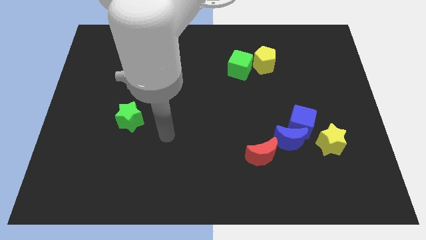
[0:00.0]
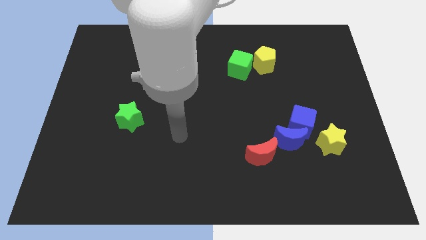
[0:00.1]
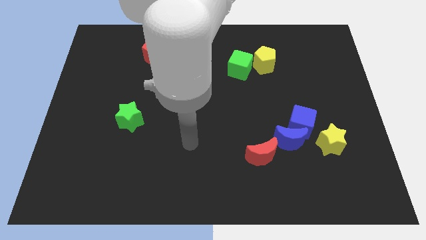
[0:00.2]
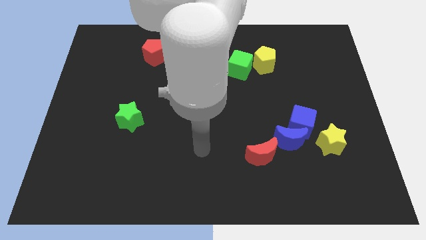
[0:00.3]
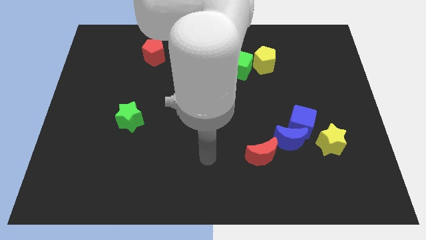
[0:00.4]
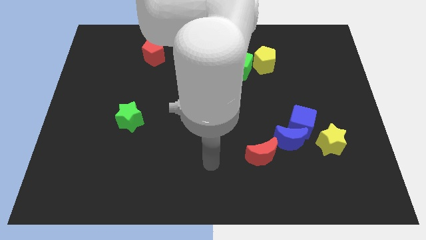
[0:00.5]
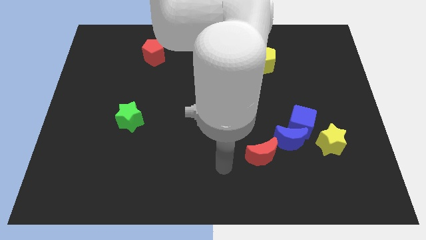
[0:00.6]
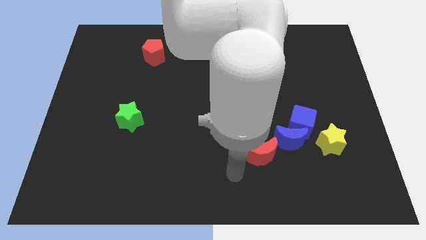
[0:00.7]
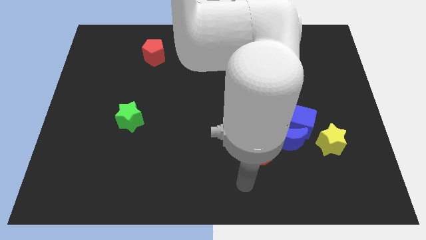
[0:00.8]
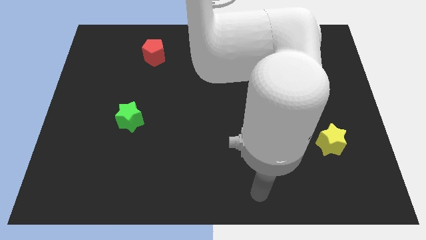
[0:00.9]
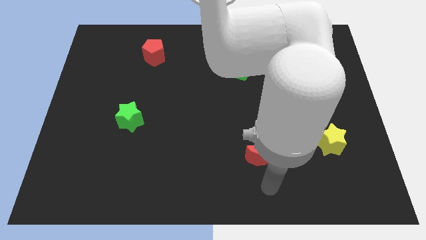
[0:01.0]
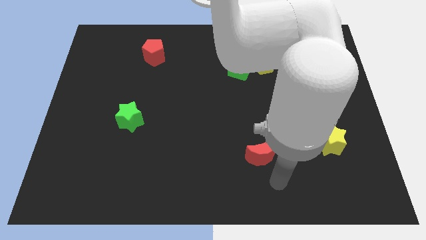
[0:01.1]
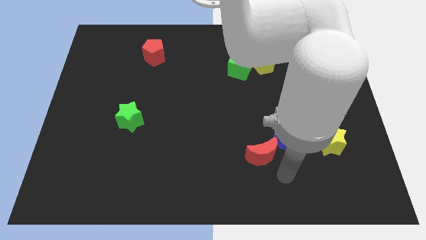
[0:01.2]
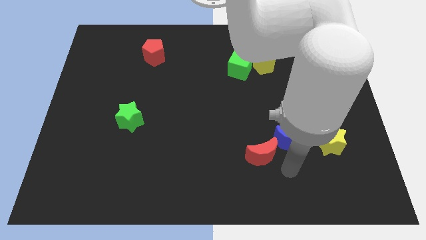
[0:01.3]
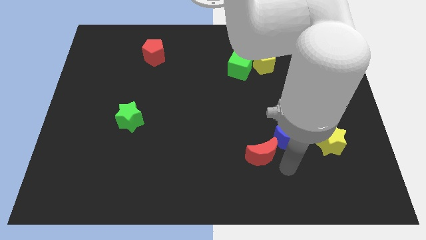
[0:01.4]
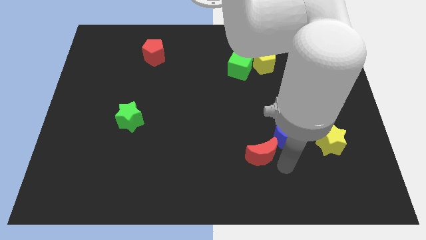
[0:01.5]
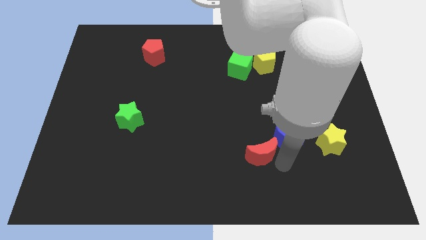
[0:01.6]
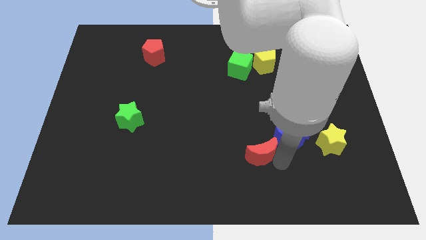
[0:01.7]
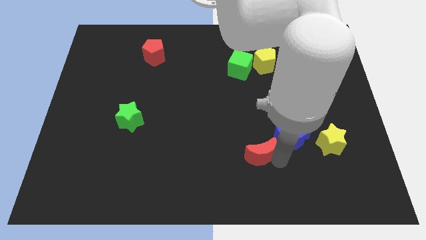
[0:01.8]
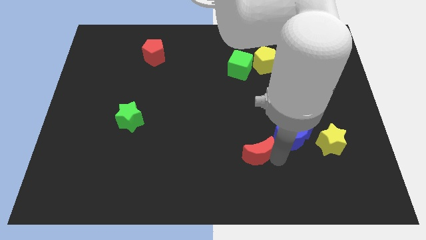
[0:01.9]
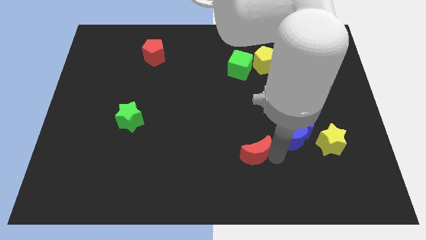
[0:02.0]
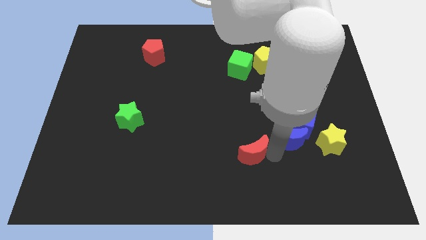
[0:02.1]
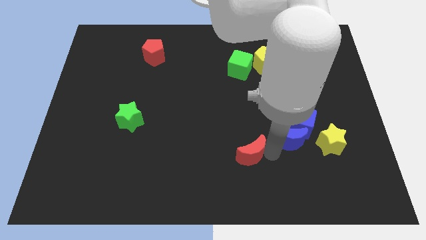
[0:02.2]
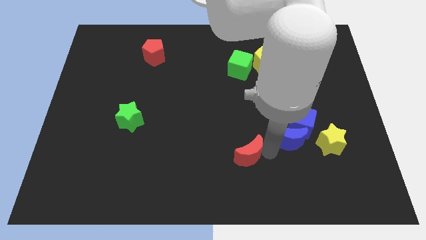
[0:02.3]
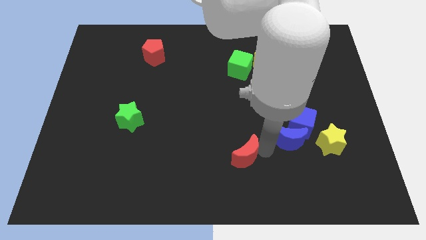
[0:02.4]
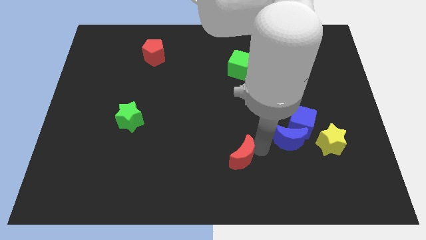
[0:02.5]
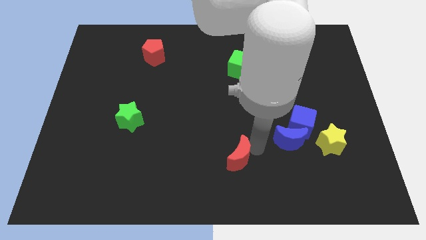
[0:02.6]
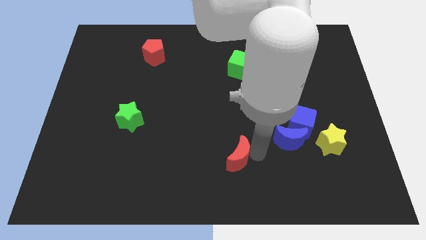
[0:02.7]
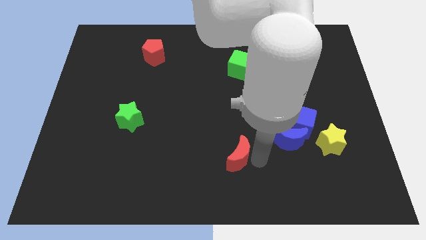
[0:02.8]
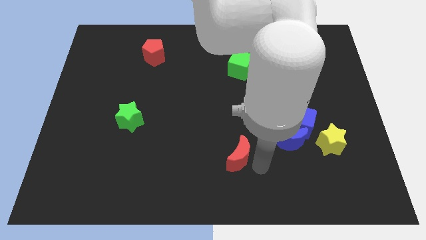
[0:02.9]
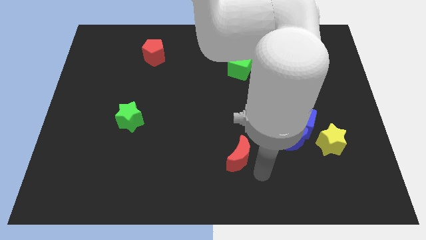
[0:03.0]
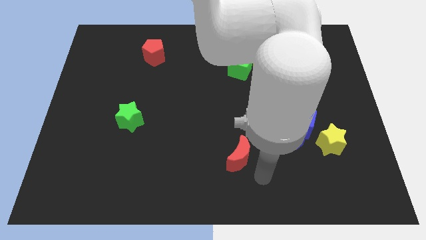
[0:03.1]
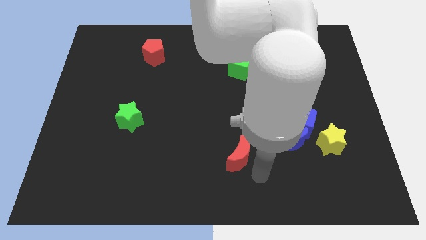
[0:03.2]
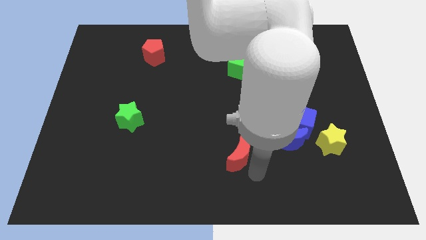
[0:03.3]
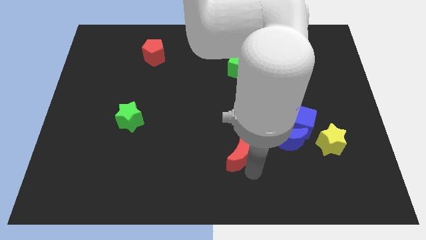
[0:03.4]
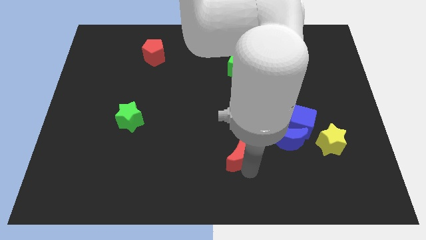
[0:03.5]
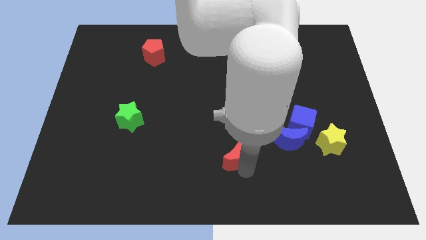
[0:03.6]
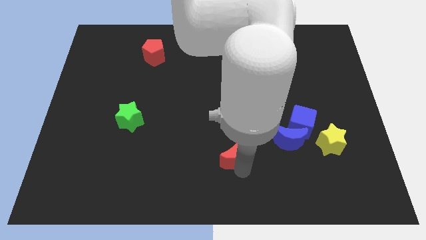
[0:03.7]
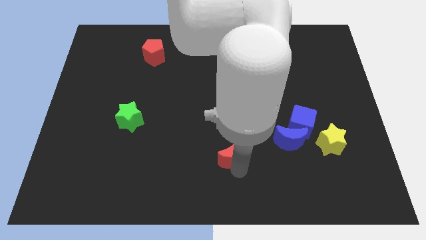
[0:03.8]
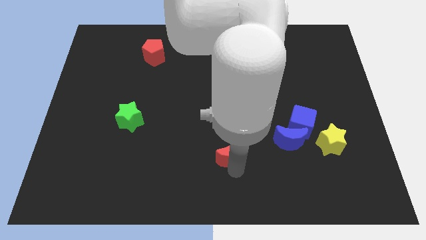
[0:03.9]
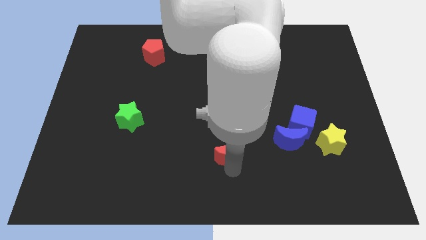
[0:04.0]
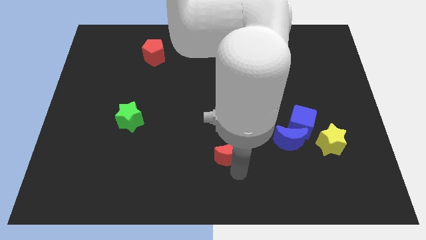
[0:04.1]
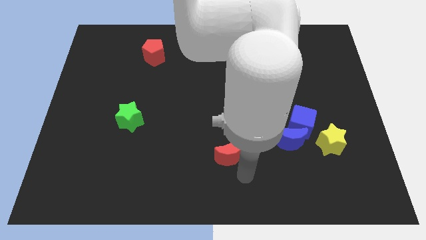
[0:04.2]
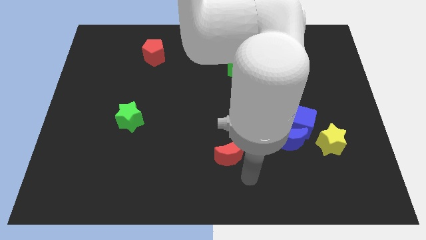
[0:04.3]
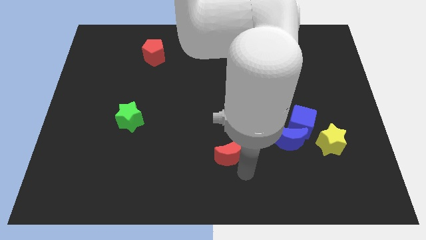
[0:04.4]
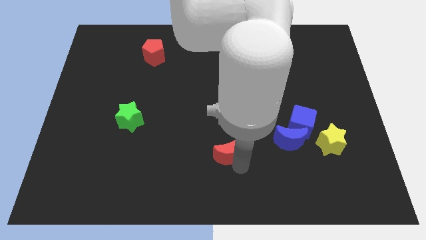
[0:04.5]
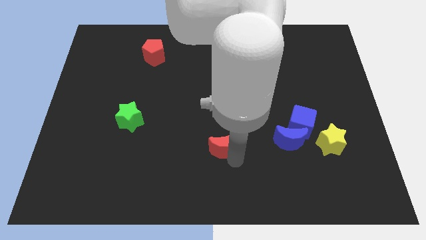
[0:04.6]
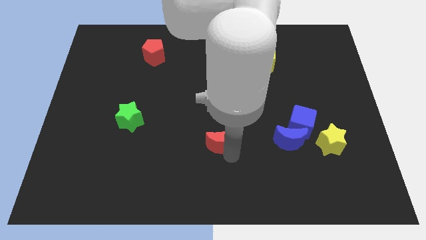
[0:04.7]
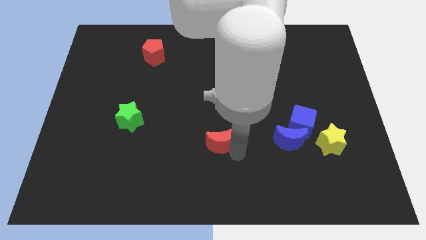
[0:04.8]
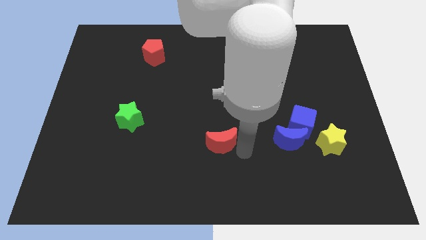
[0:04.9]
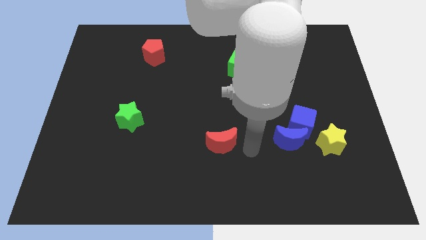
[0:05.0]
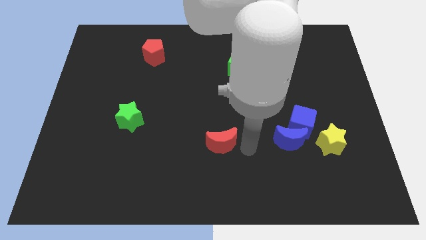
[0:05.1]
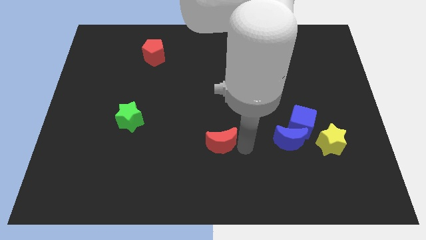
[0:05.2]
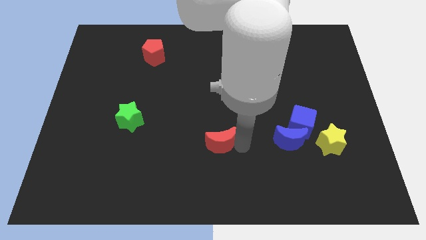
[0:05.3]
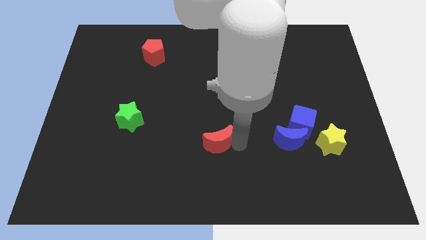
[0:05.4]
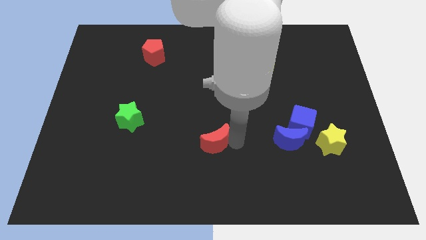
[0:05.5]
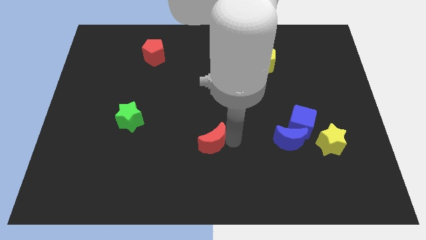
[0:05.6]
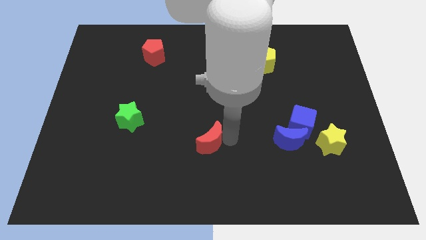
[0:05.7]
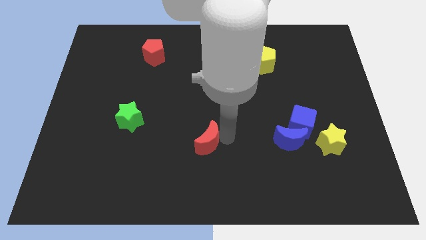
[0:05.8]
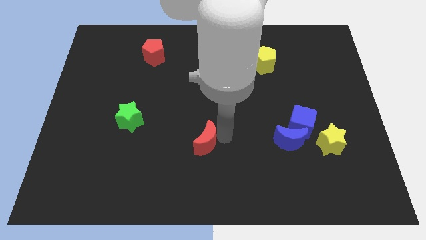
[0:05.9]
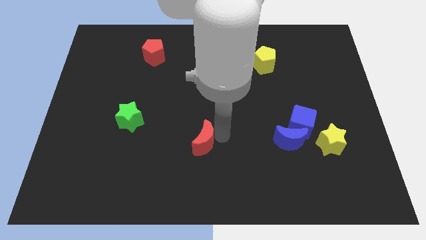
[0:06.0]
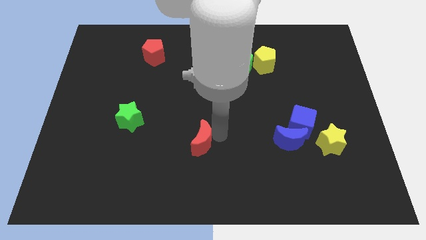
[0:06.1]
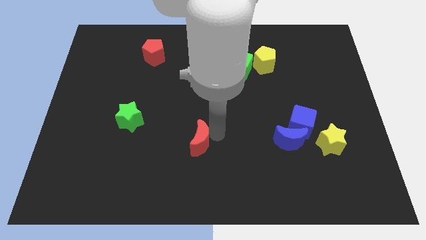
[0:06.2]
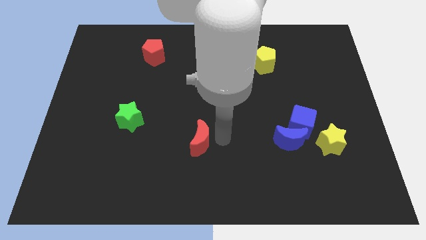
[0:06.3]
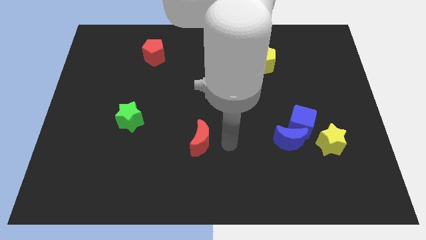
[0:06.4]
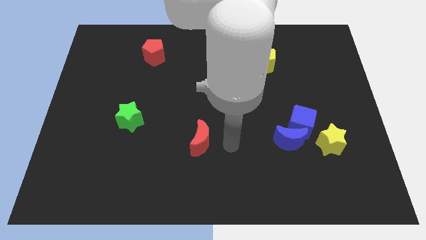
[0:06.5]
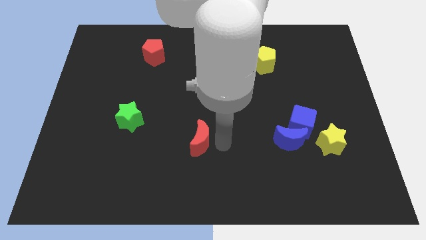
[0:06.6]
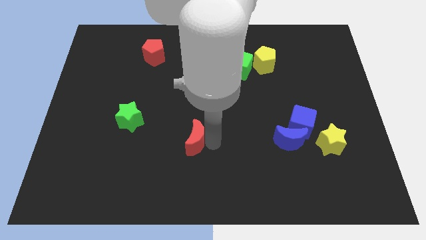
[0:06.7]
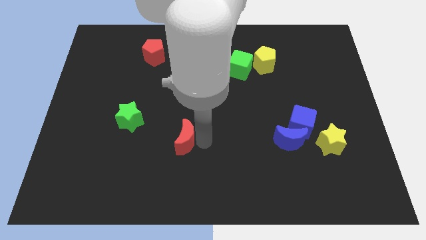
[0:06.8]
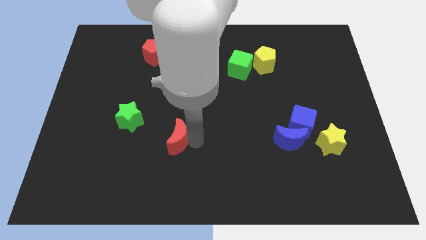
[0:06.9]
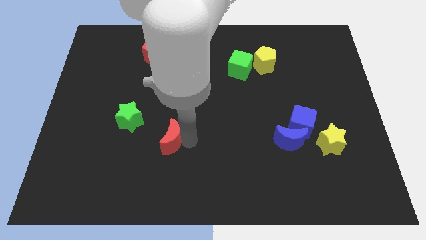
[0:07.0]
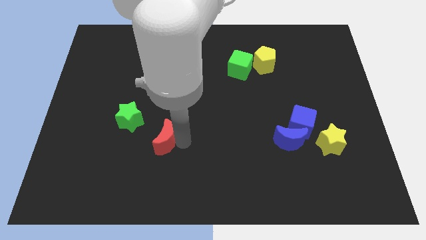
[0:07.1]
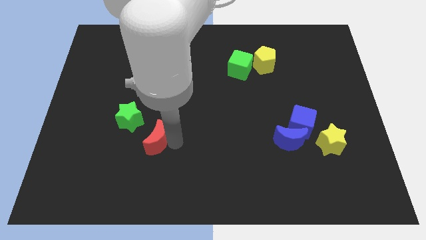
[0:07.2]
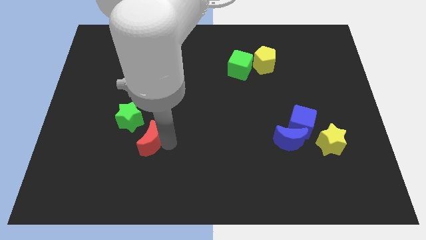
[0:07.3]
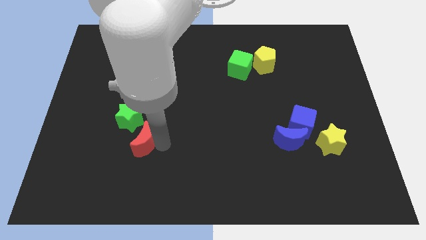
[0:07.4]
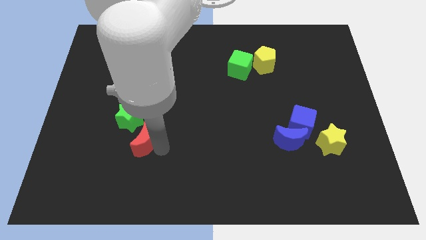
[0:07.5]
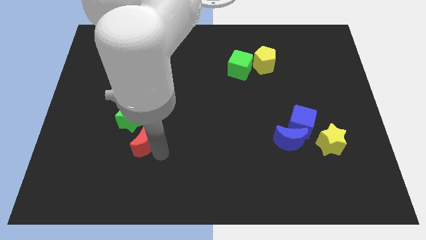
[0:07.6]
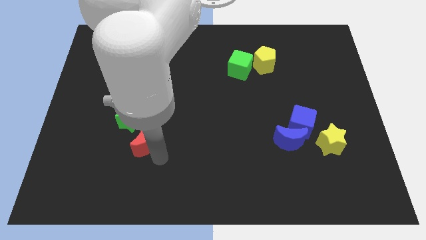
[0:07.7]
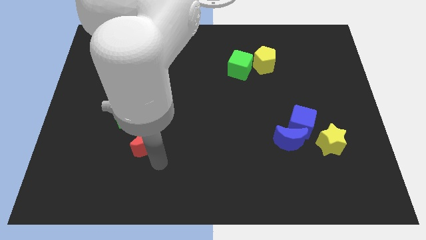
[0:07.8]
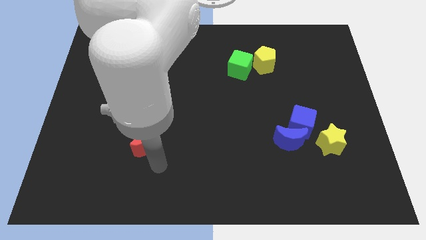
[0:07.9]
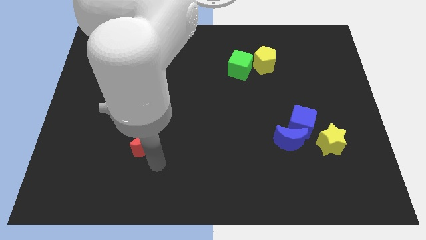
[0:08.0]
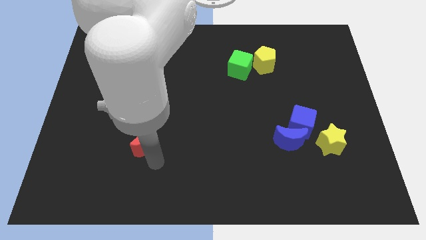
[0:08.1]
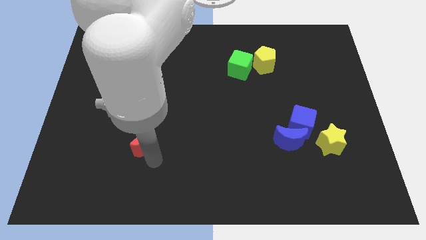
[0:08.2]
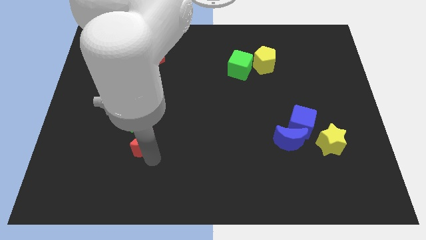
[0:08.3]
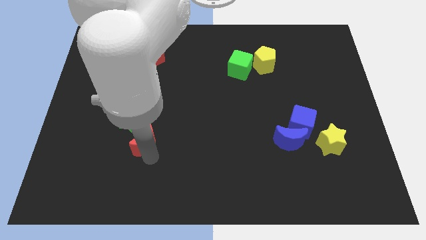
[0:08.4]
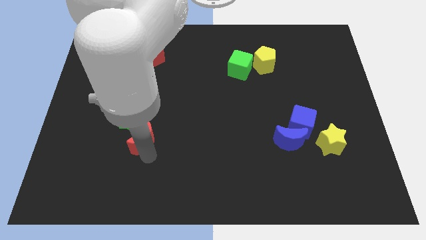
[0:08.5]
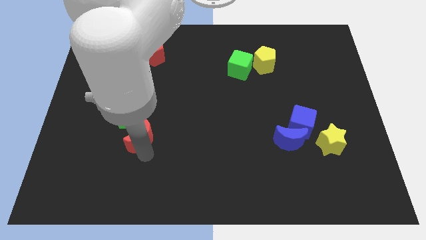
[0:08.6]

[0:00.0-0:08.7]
move the red moon towards the green star
